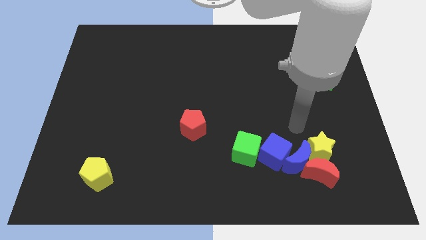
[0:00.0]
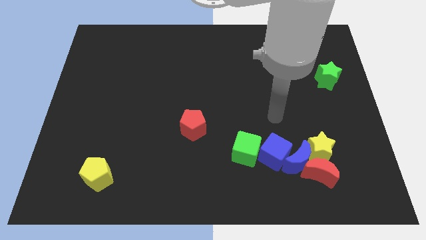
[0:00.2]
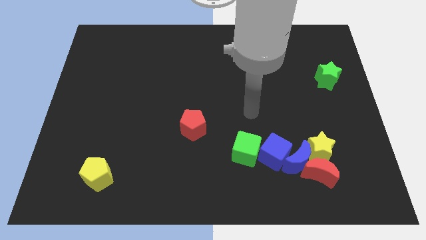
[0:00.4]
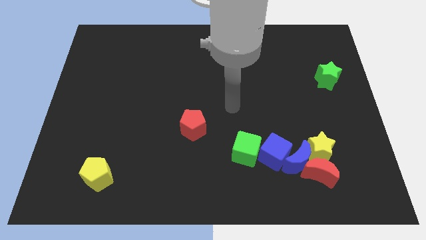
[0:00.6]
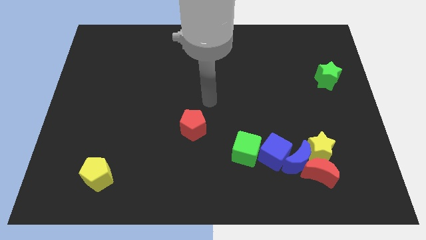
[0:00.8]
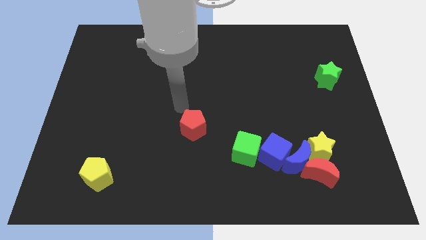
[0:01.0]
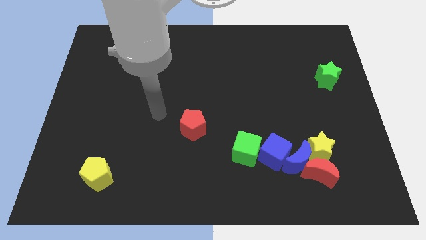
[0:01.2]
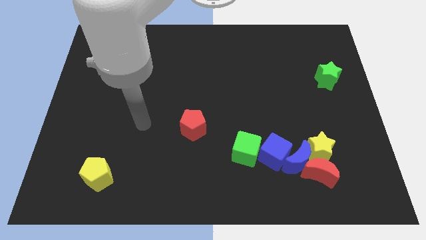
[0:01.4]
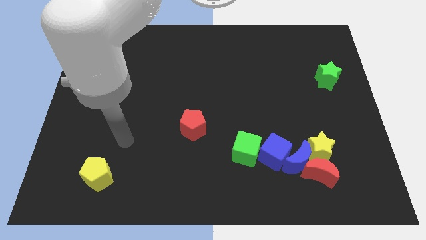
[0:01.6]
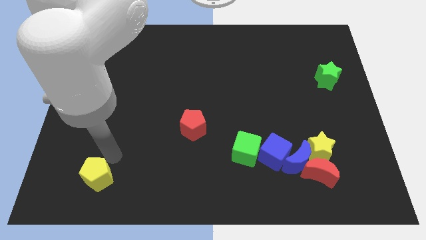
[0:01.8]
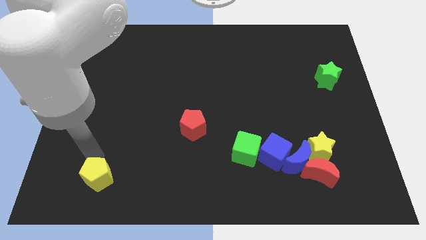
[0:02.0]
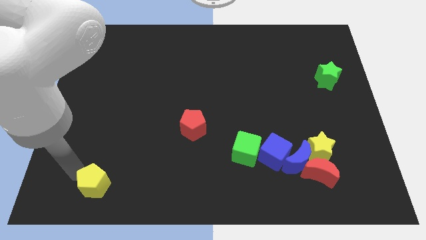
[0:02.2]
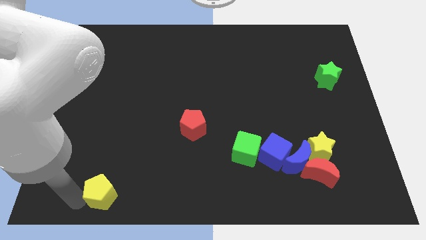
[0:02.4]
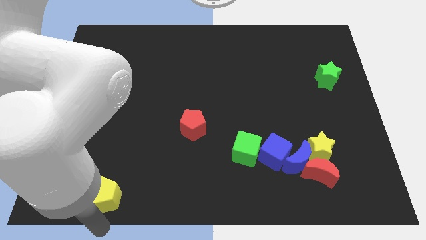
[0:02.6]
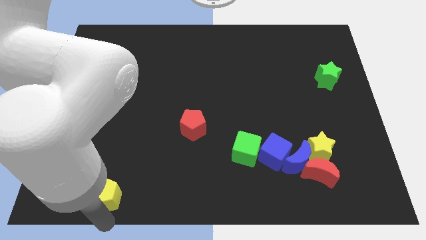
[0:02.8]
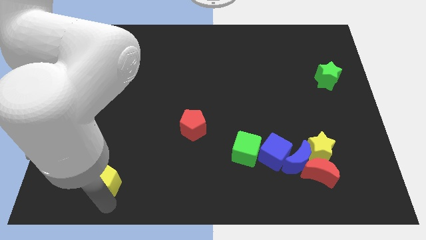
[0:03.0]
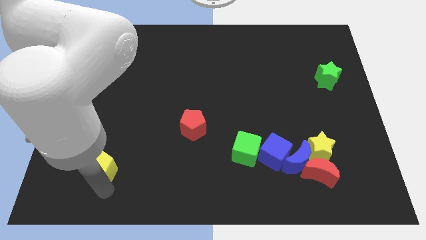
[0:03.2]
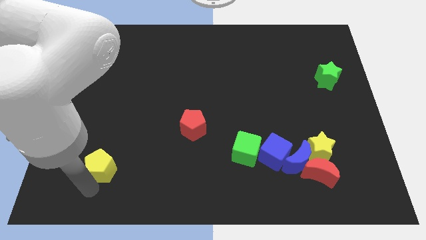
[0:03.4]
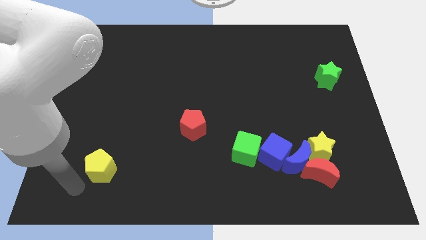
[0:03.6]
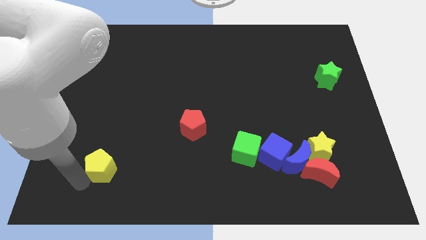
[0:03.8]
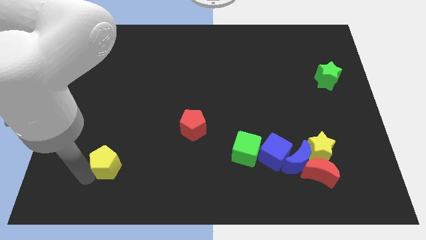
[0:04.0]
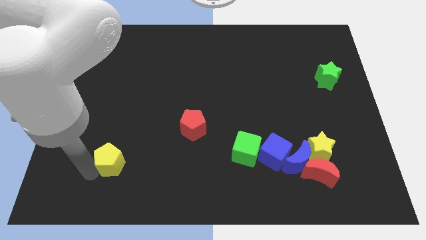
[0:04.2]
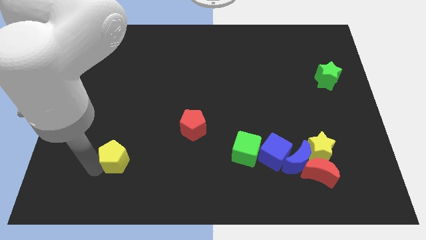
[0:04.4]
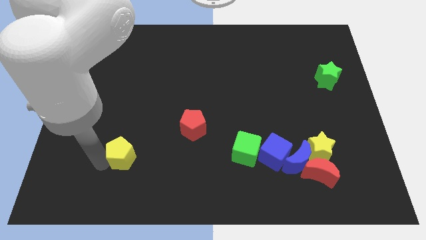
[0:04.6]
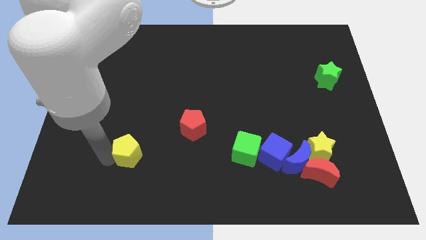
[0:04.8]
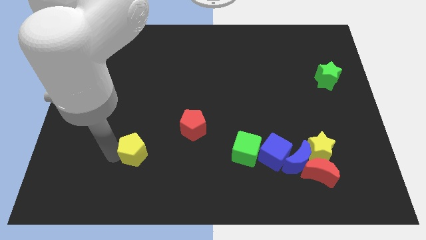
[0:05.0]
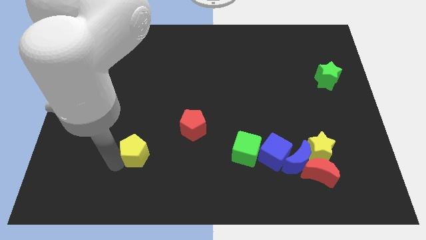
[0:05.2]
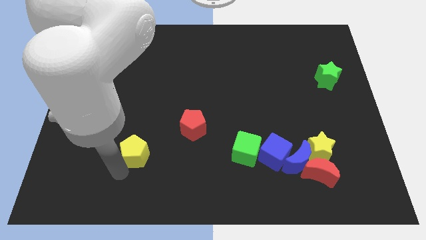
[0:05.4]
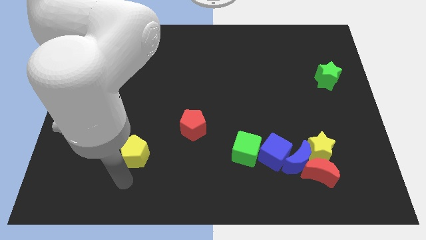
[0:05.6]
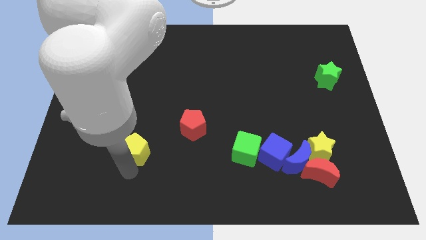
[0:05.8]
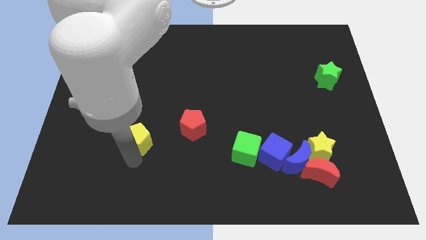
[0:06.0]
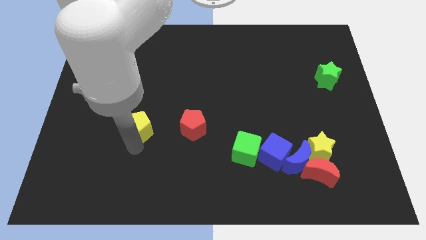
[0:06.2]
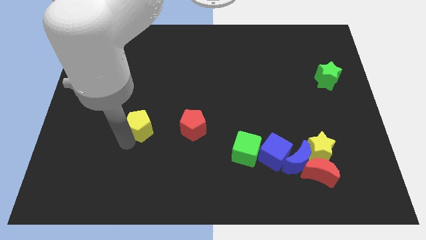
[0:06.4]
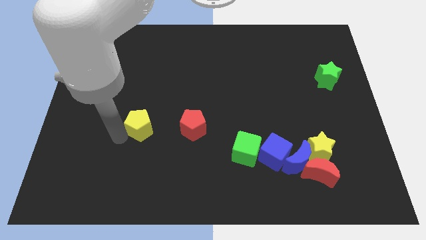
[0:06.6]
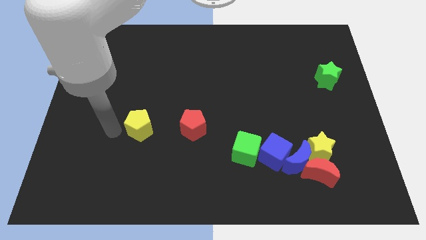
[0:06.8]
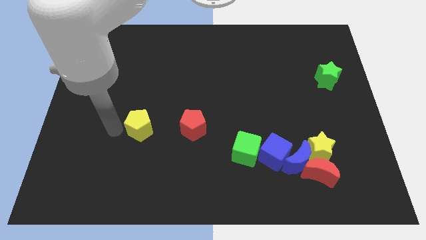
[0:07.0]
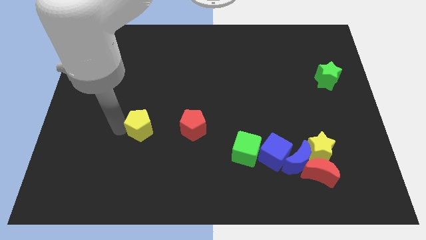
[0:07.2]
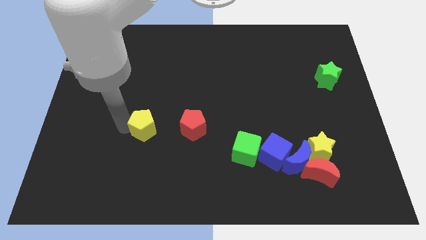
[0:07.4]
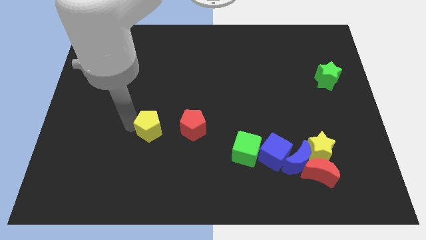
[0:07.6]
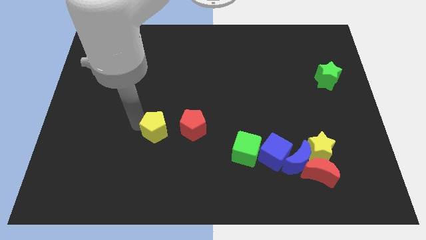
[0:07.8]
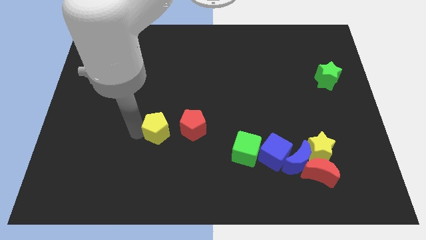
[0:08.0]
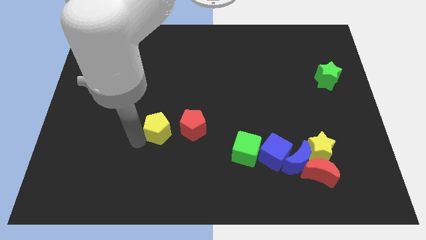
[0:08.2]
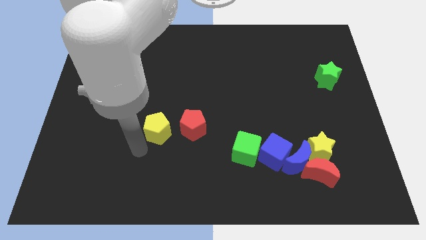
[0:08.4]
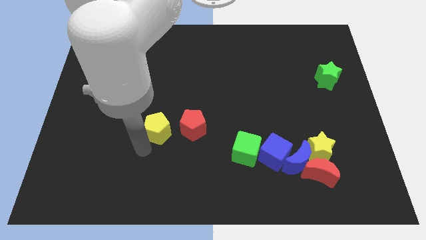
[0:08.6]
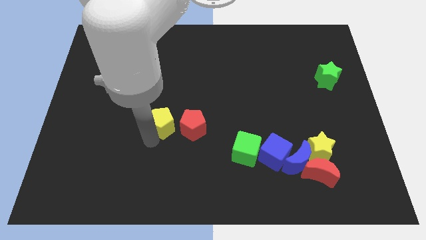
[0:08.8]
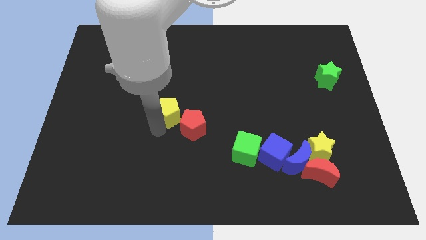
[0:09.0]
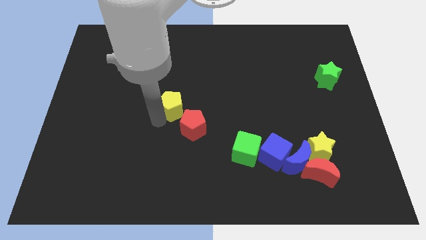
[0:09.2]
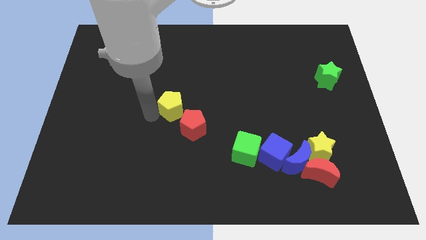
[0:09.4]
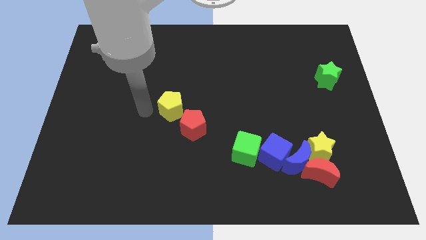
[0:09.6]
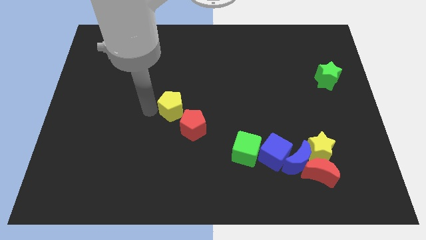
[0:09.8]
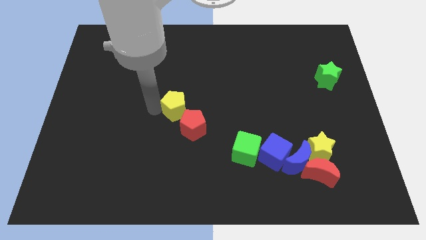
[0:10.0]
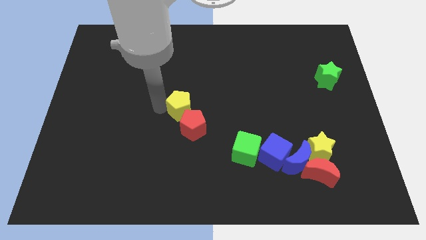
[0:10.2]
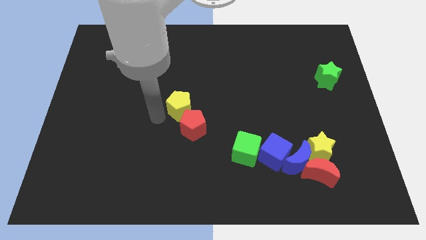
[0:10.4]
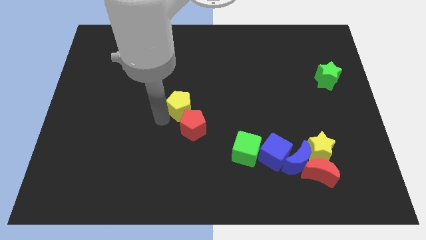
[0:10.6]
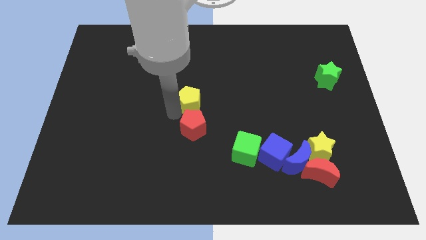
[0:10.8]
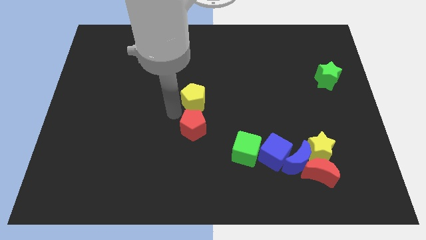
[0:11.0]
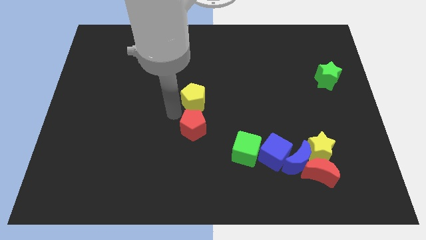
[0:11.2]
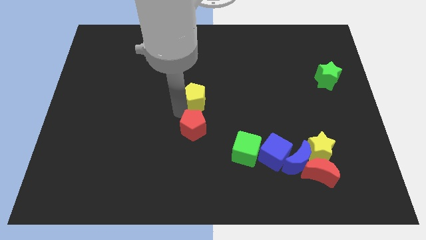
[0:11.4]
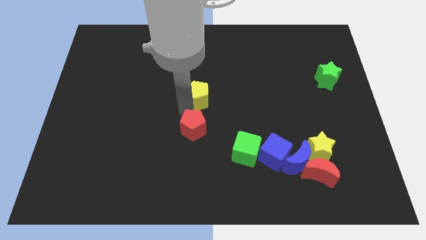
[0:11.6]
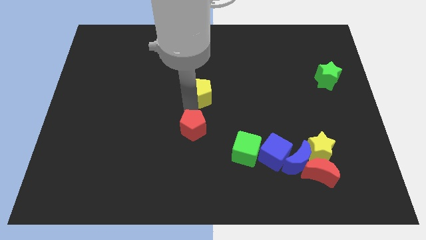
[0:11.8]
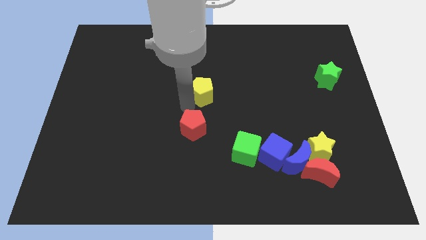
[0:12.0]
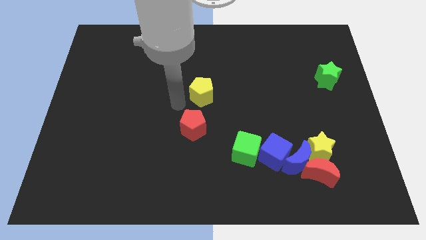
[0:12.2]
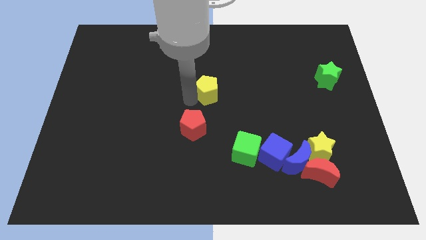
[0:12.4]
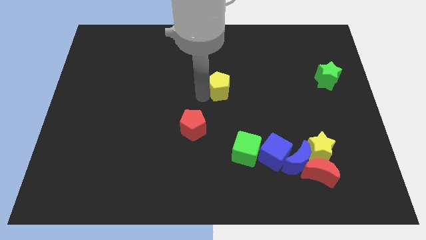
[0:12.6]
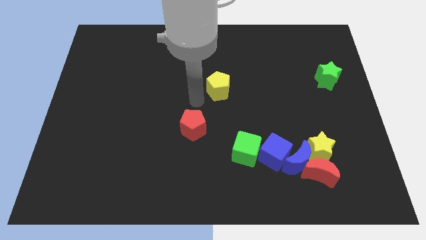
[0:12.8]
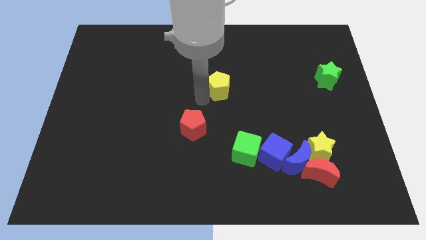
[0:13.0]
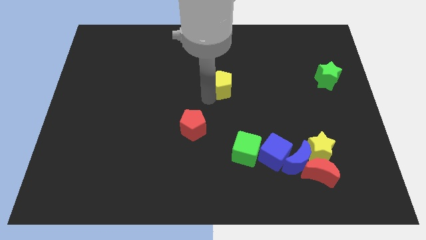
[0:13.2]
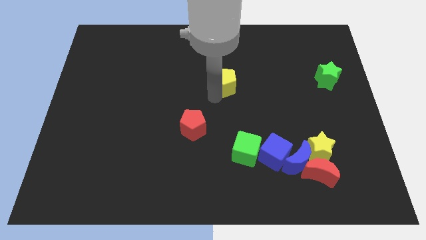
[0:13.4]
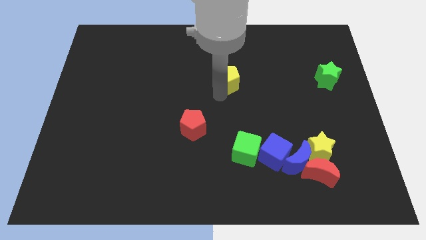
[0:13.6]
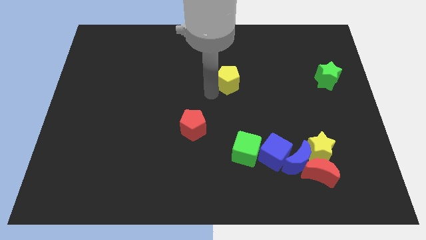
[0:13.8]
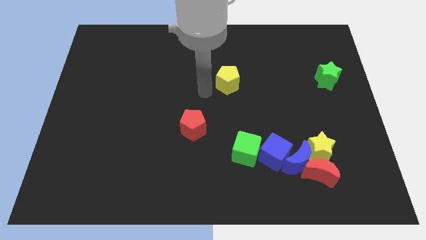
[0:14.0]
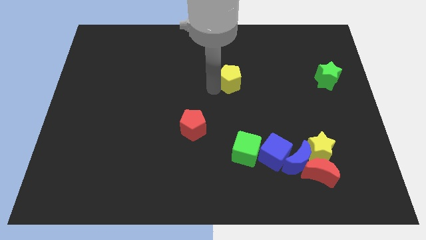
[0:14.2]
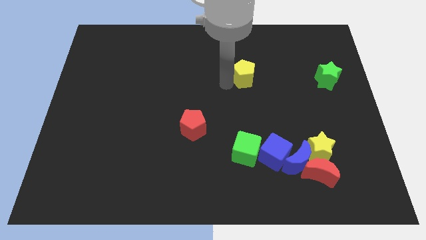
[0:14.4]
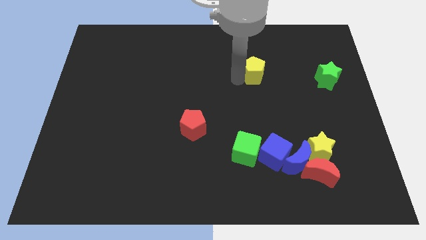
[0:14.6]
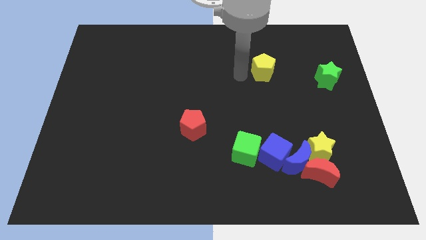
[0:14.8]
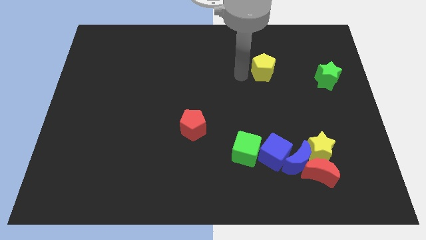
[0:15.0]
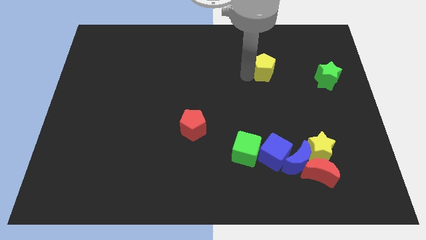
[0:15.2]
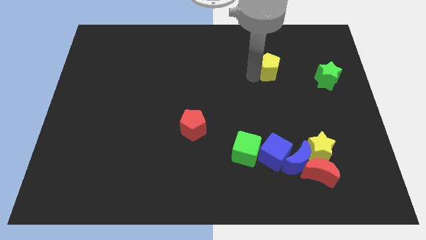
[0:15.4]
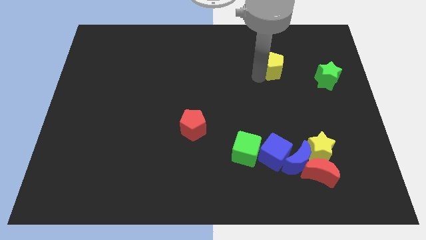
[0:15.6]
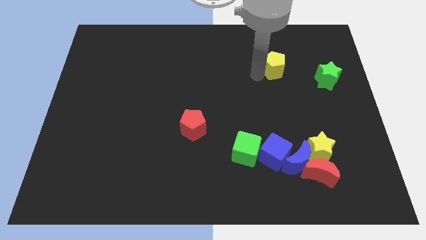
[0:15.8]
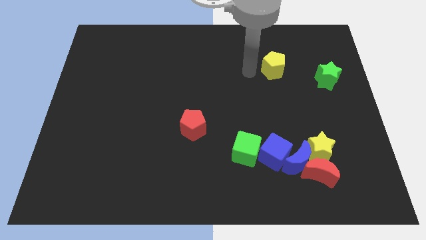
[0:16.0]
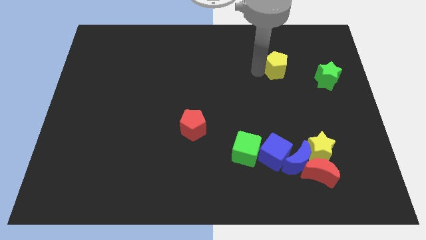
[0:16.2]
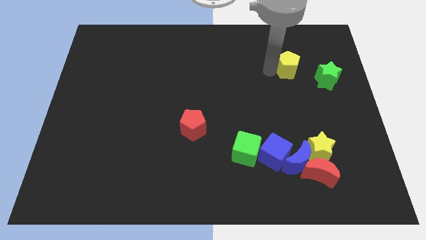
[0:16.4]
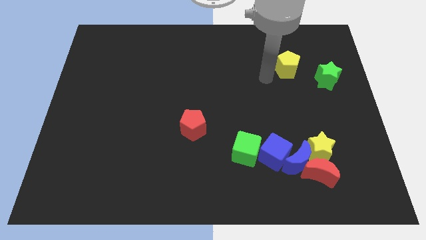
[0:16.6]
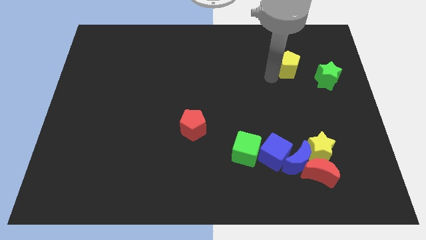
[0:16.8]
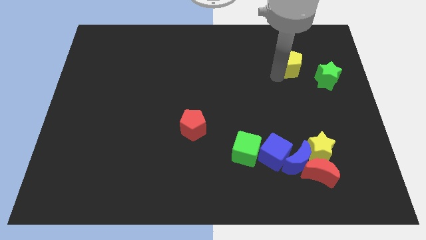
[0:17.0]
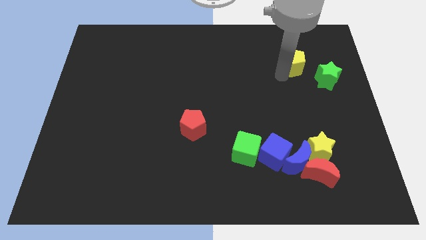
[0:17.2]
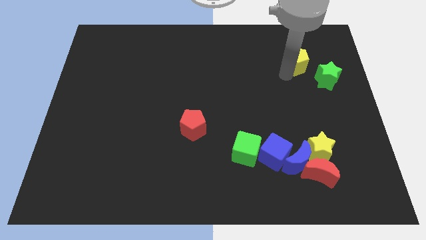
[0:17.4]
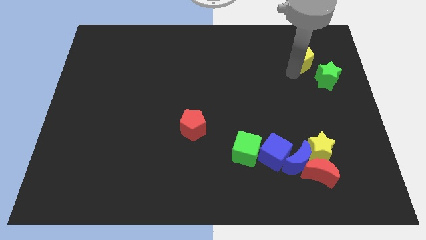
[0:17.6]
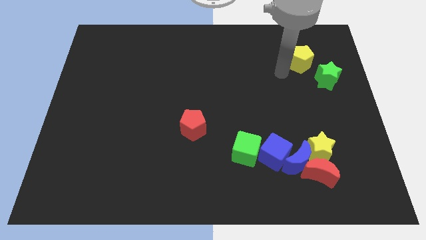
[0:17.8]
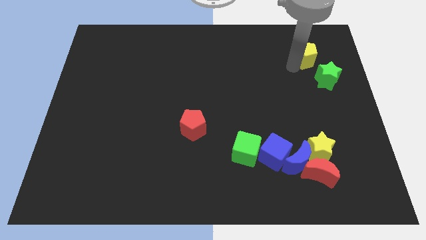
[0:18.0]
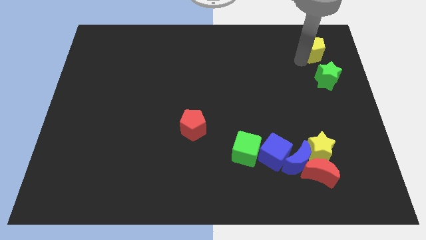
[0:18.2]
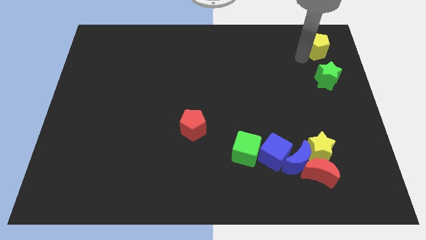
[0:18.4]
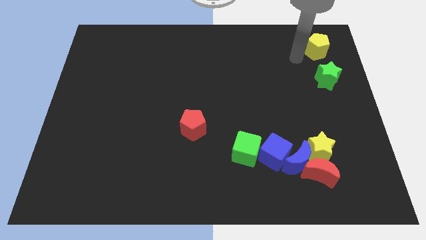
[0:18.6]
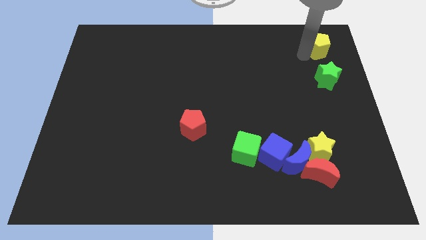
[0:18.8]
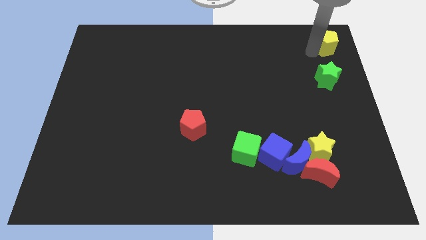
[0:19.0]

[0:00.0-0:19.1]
move the yellow pentagon to the upper right corner
